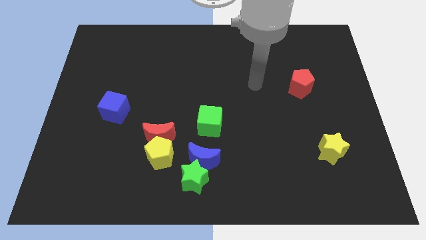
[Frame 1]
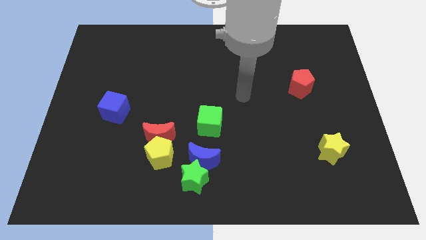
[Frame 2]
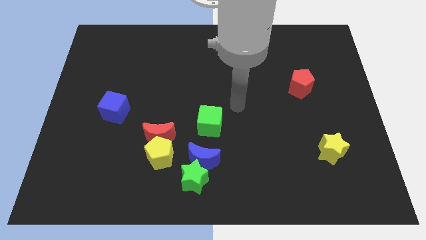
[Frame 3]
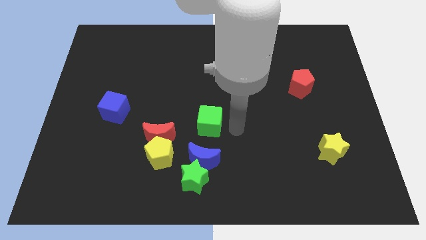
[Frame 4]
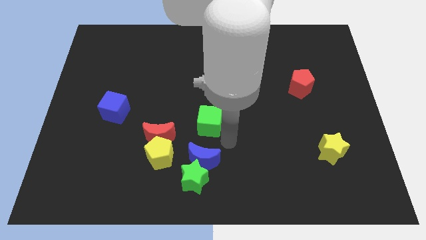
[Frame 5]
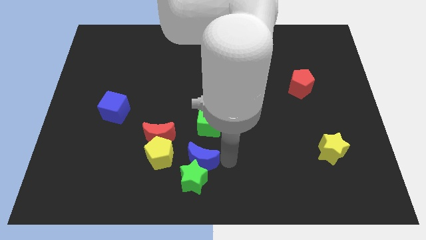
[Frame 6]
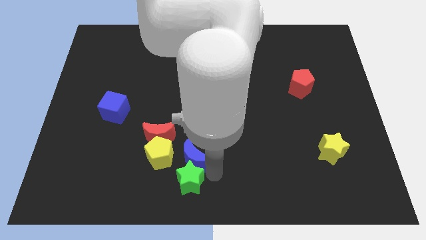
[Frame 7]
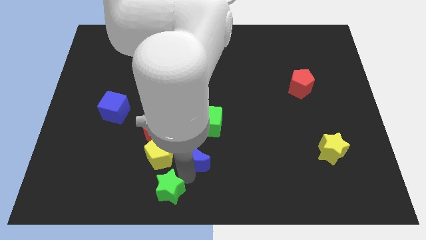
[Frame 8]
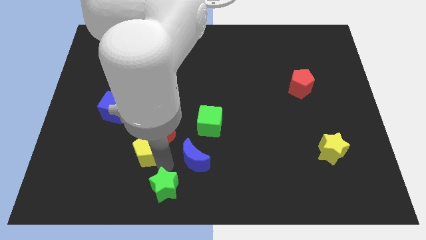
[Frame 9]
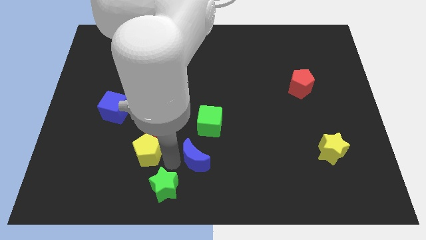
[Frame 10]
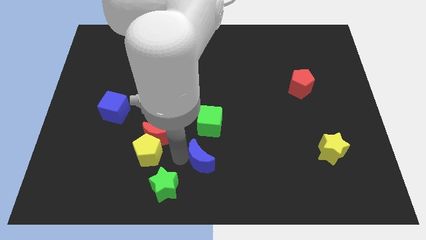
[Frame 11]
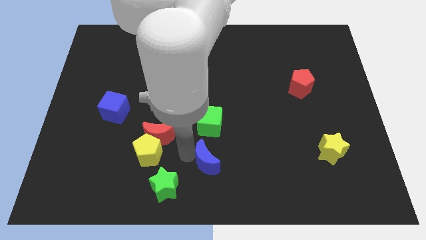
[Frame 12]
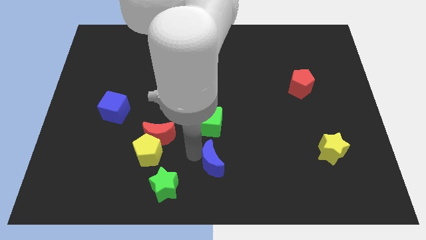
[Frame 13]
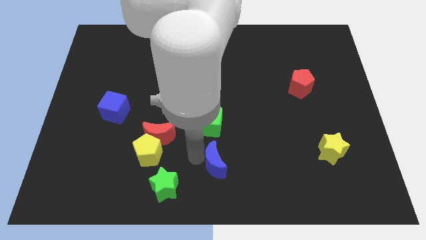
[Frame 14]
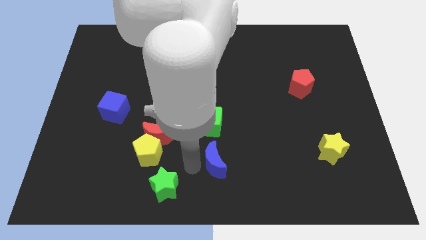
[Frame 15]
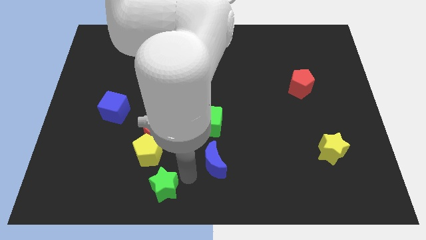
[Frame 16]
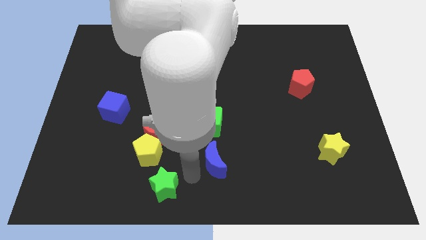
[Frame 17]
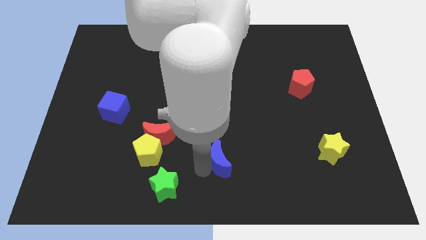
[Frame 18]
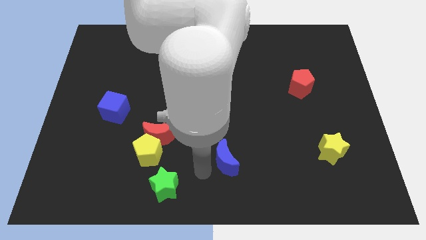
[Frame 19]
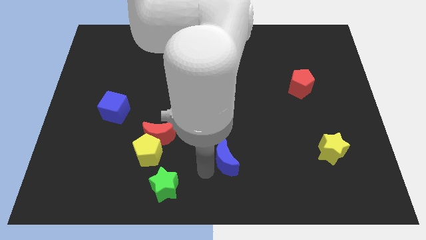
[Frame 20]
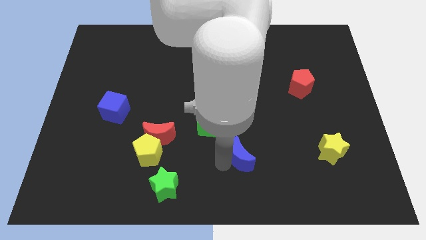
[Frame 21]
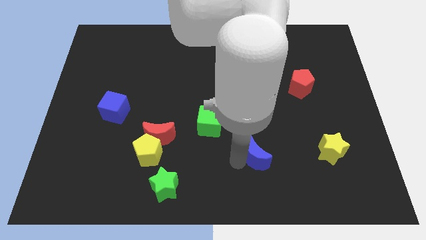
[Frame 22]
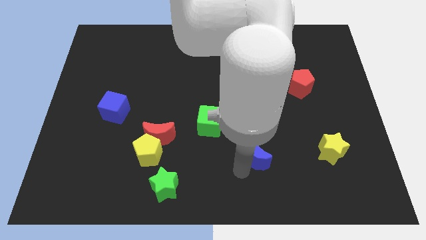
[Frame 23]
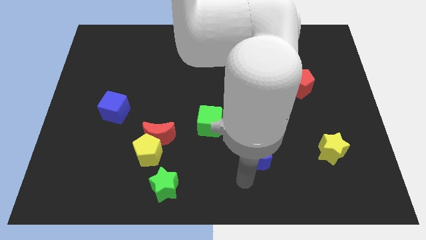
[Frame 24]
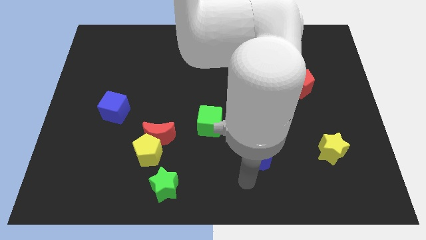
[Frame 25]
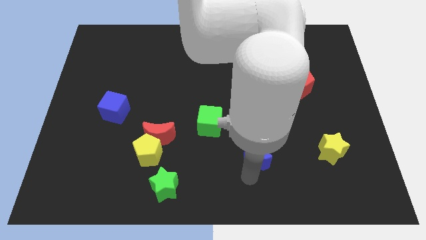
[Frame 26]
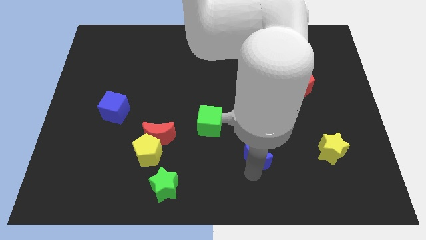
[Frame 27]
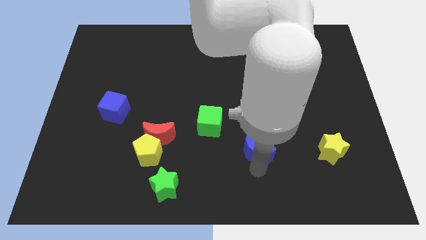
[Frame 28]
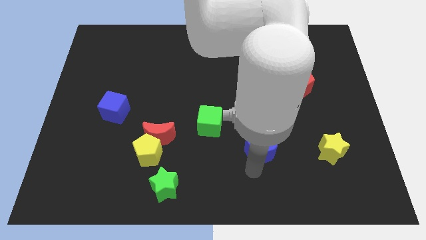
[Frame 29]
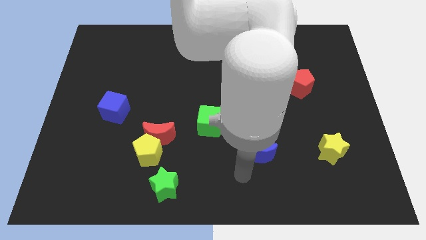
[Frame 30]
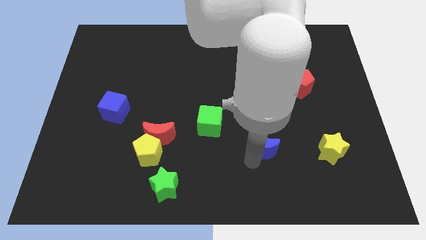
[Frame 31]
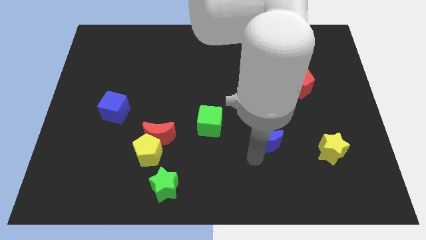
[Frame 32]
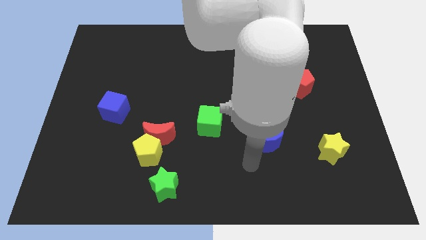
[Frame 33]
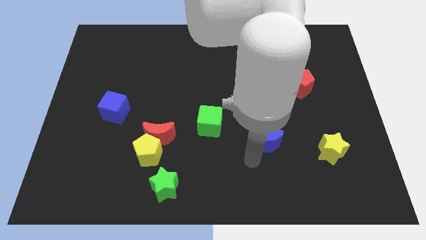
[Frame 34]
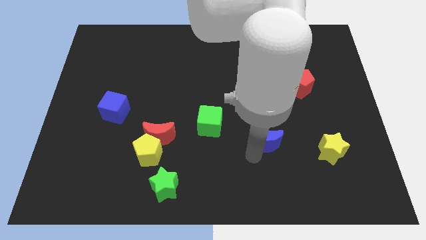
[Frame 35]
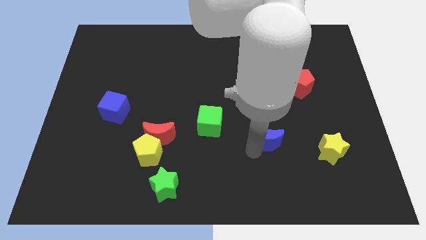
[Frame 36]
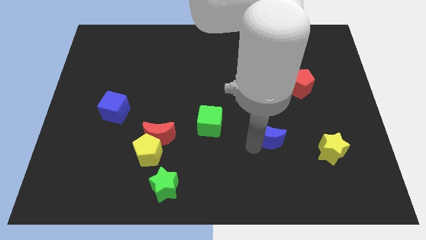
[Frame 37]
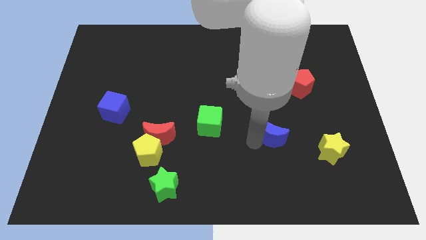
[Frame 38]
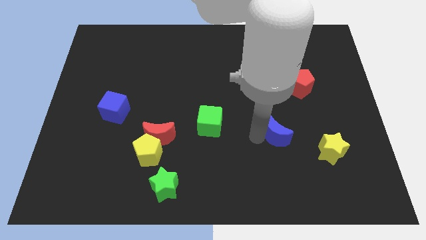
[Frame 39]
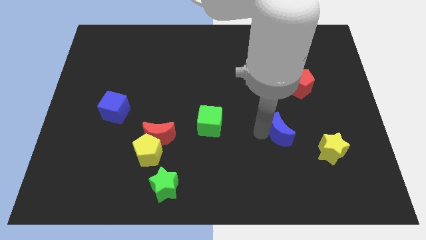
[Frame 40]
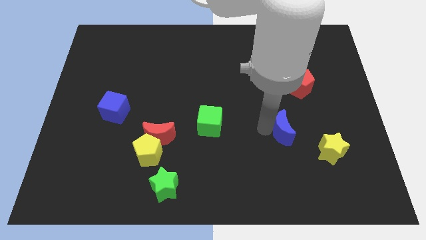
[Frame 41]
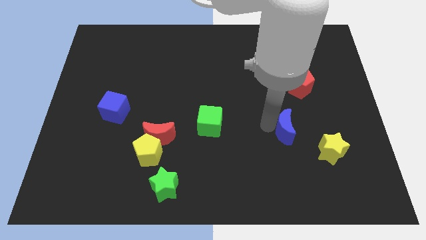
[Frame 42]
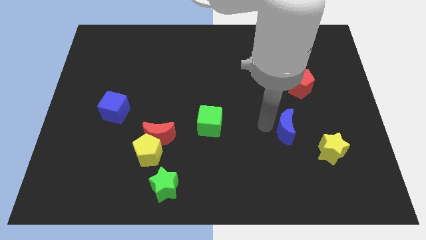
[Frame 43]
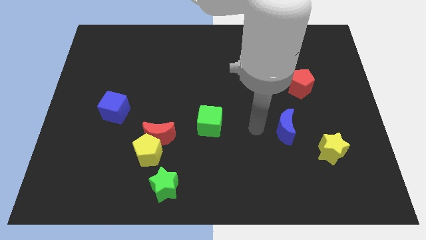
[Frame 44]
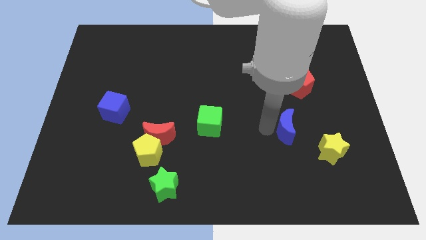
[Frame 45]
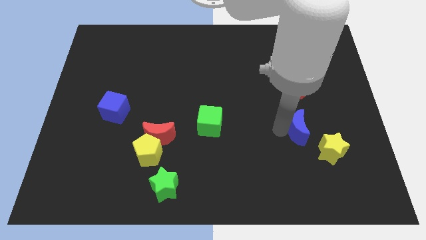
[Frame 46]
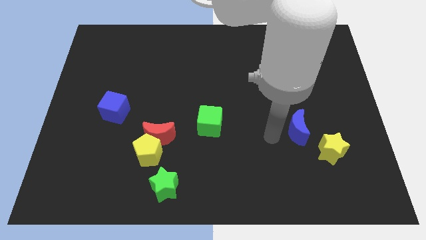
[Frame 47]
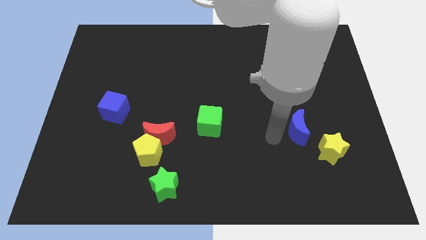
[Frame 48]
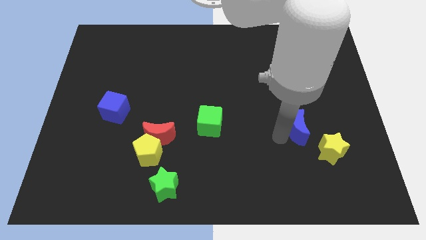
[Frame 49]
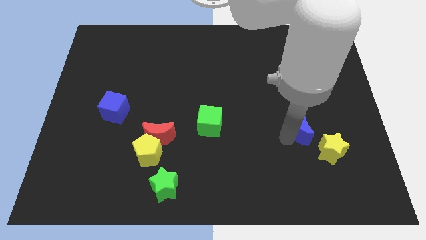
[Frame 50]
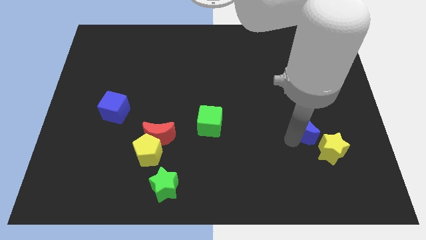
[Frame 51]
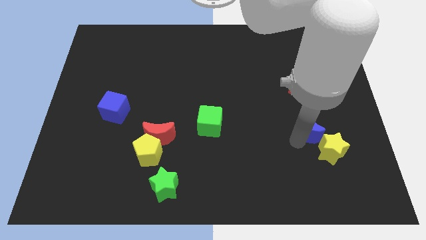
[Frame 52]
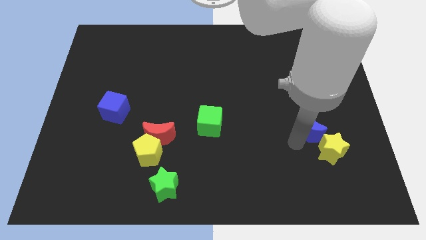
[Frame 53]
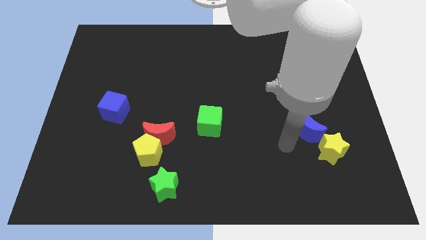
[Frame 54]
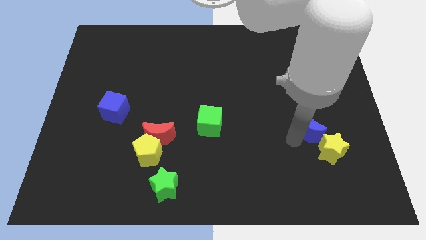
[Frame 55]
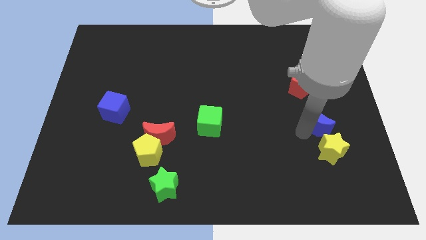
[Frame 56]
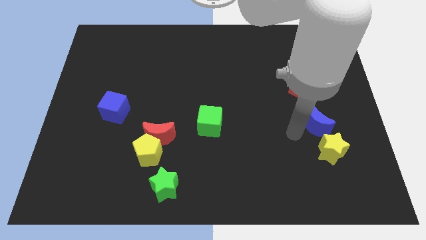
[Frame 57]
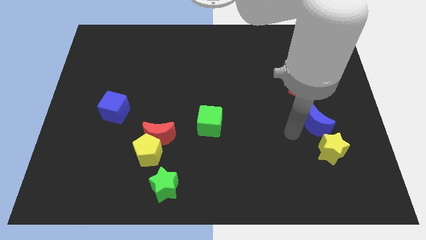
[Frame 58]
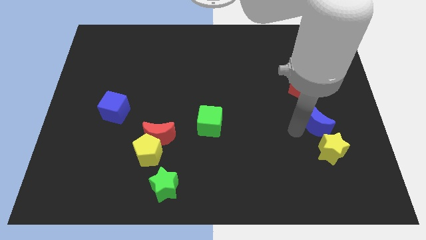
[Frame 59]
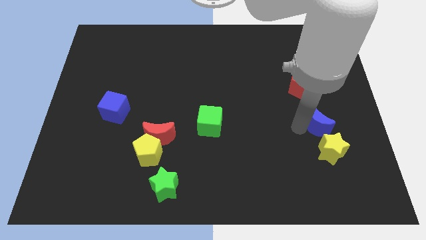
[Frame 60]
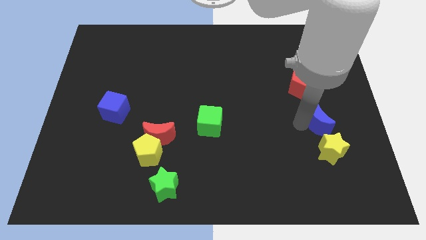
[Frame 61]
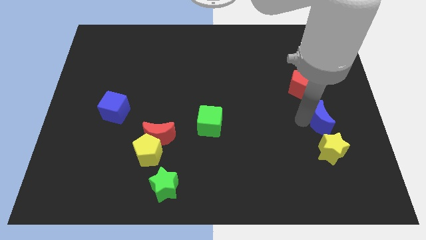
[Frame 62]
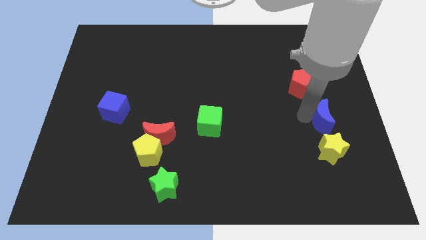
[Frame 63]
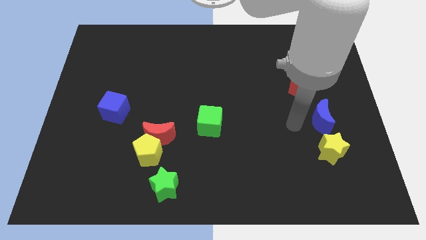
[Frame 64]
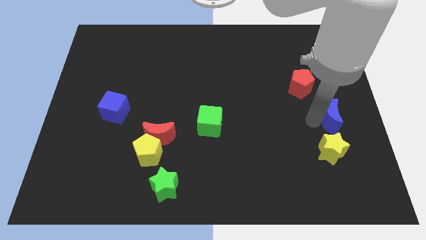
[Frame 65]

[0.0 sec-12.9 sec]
move the blue moon to the center right

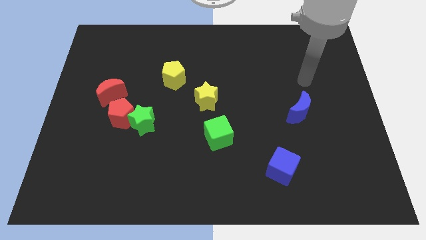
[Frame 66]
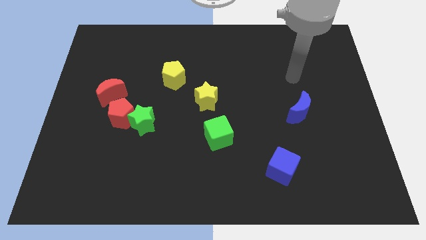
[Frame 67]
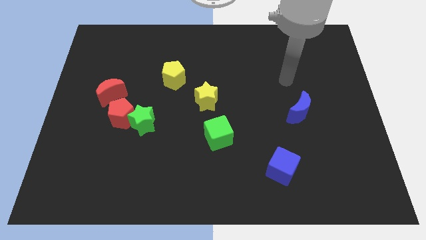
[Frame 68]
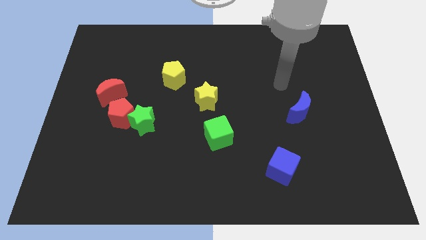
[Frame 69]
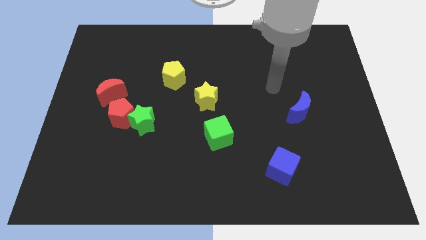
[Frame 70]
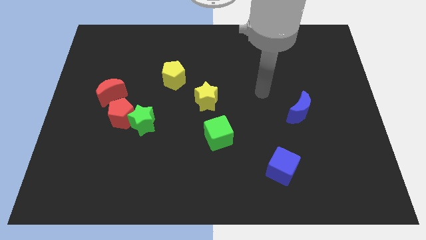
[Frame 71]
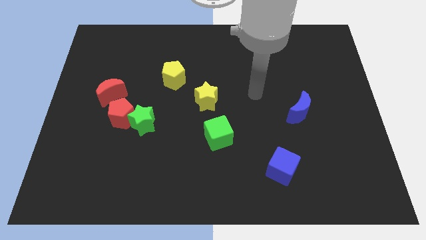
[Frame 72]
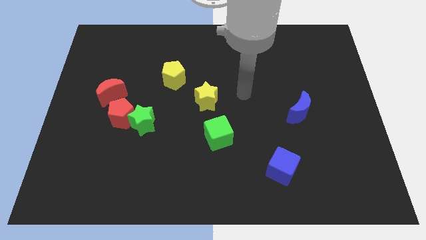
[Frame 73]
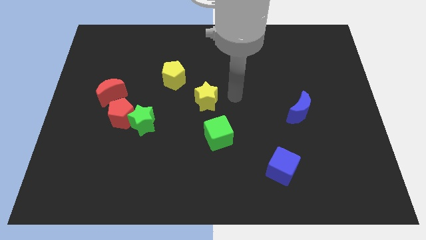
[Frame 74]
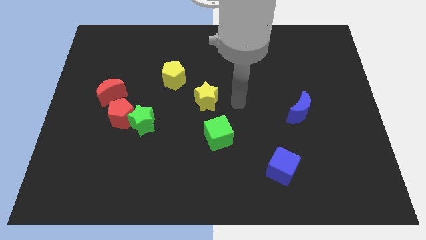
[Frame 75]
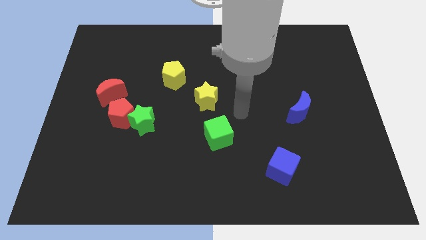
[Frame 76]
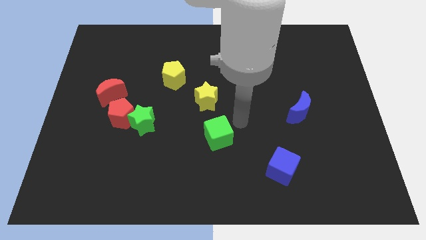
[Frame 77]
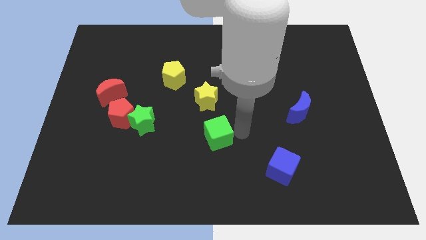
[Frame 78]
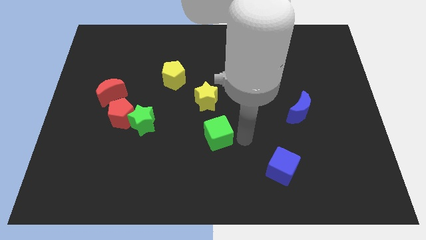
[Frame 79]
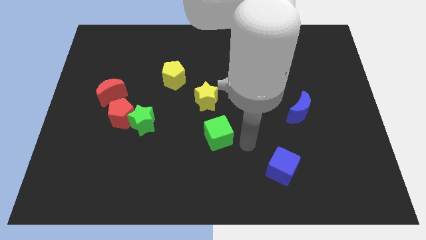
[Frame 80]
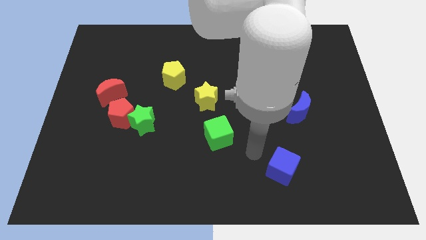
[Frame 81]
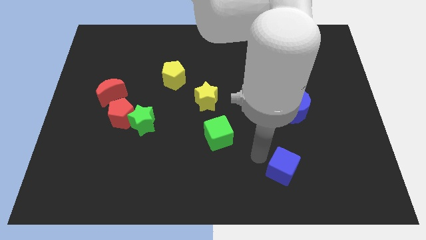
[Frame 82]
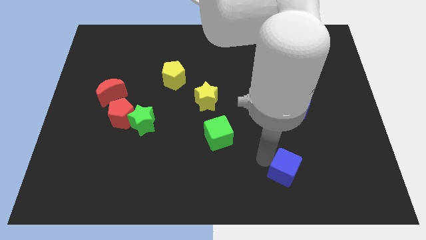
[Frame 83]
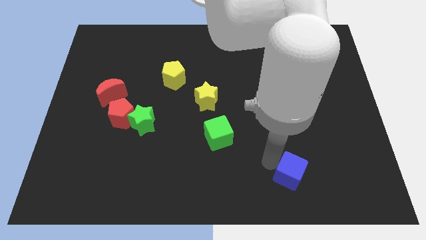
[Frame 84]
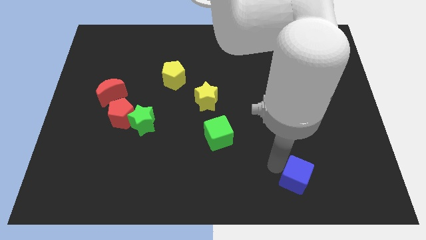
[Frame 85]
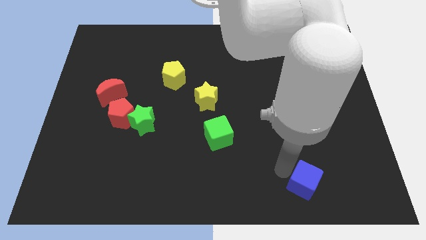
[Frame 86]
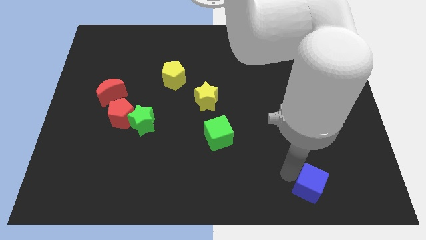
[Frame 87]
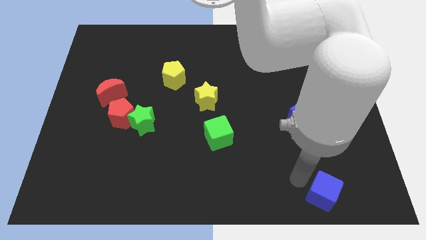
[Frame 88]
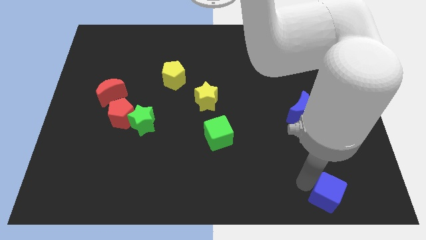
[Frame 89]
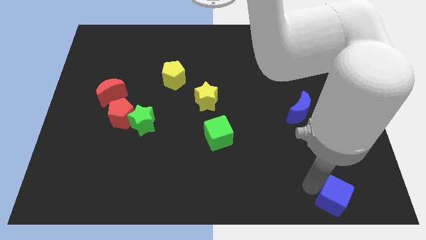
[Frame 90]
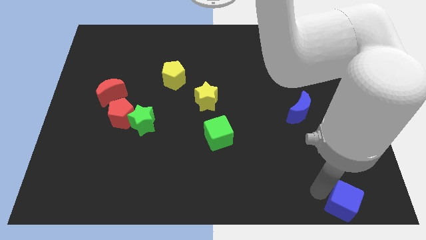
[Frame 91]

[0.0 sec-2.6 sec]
push the blue cube to the bottom right
